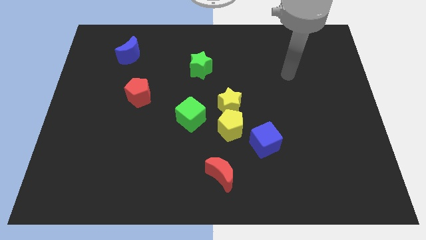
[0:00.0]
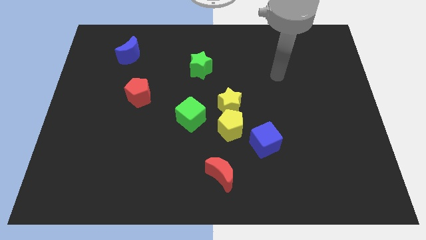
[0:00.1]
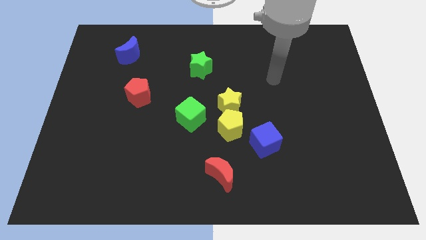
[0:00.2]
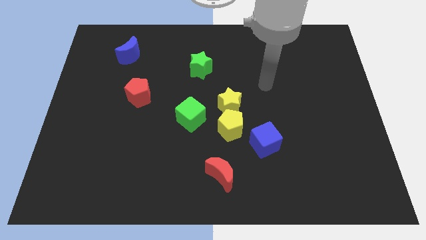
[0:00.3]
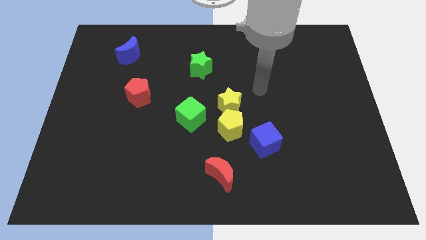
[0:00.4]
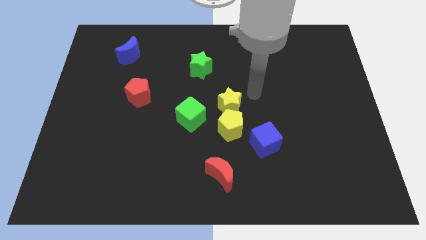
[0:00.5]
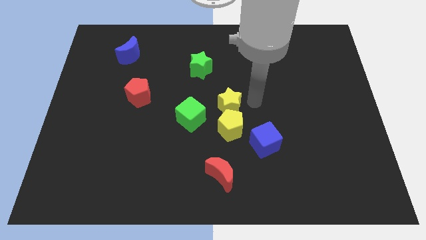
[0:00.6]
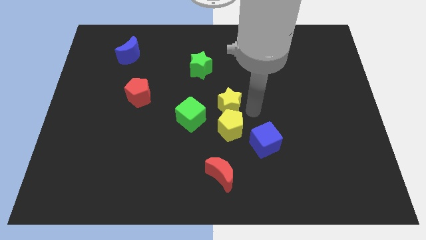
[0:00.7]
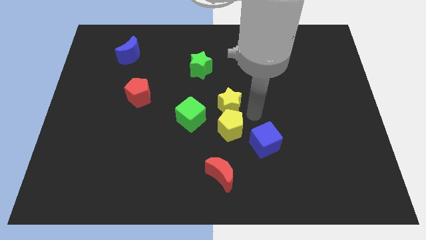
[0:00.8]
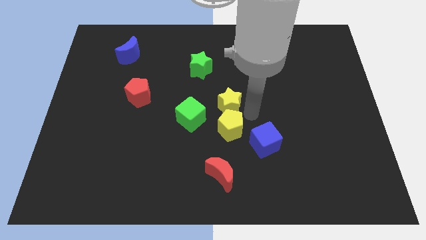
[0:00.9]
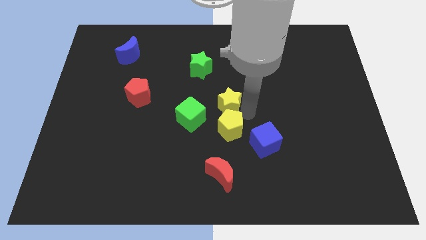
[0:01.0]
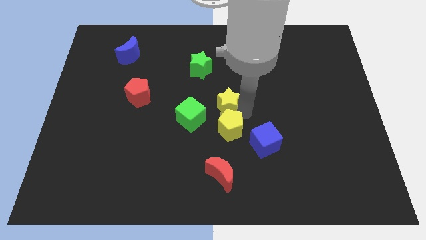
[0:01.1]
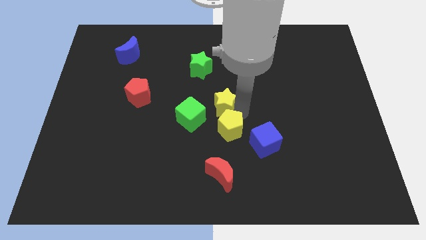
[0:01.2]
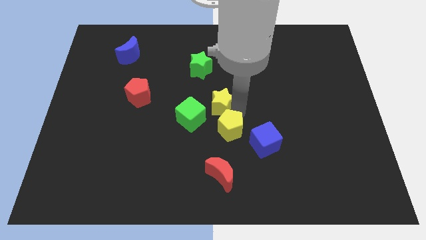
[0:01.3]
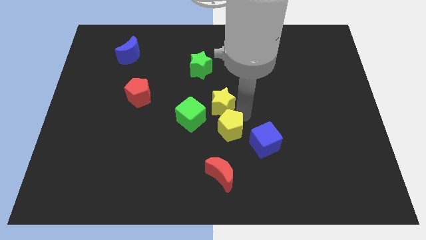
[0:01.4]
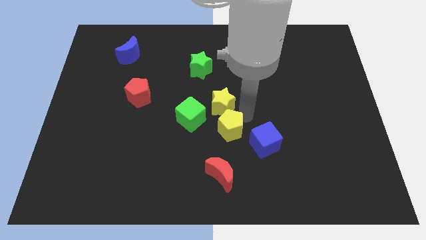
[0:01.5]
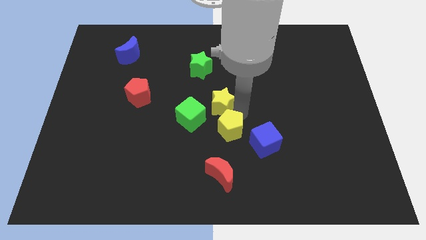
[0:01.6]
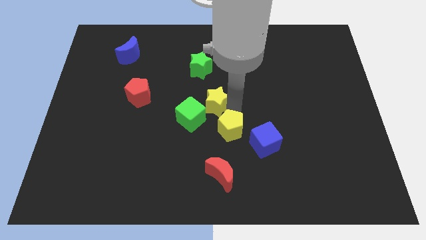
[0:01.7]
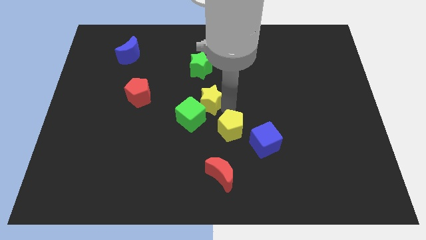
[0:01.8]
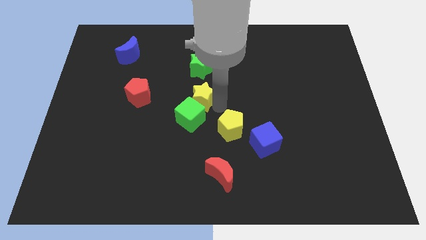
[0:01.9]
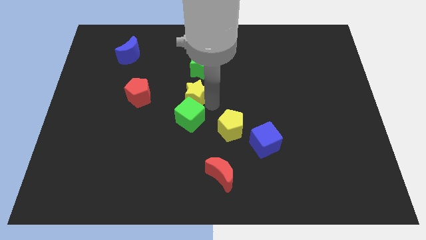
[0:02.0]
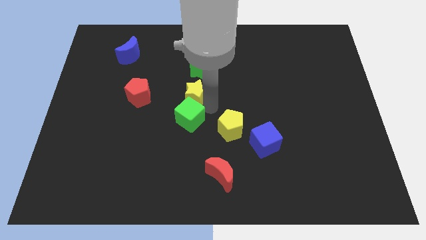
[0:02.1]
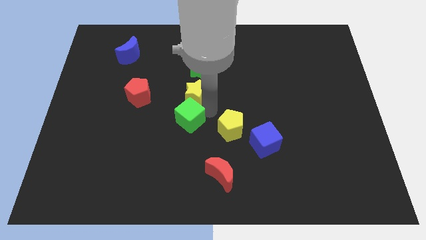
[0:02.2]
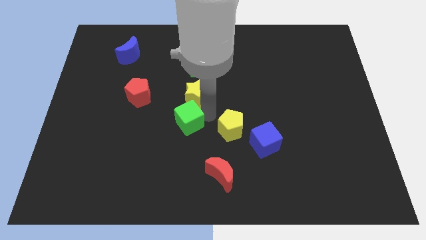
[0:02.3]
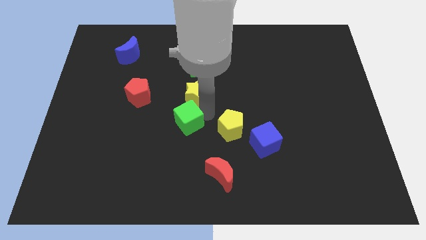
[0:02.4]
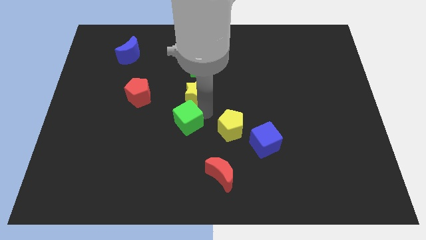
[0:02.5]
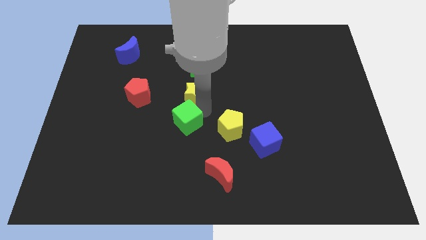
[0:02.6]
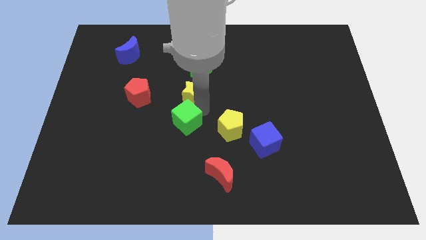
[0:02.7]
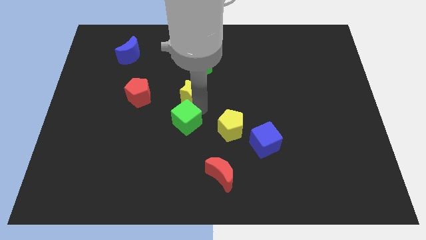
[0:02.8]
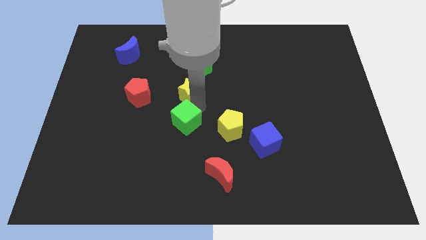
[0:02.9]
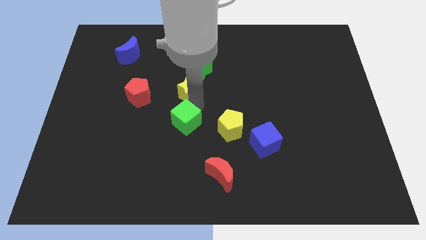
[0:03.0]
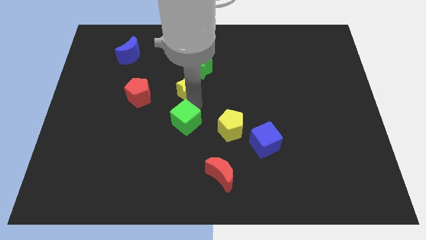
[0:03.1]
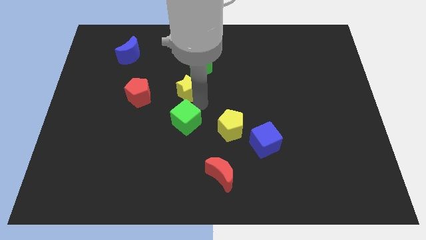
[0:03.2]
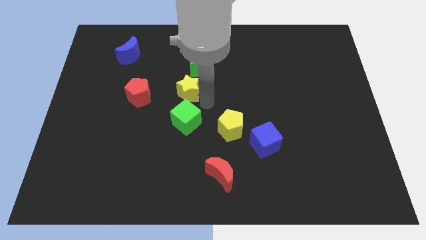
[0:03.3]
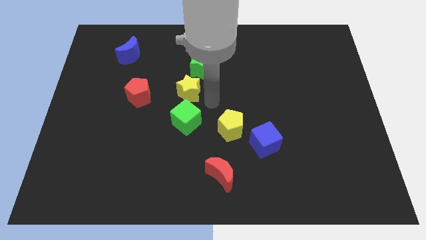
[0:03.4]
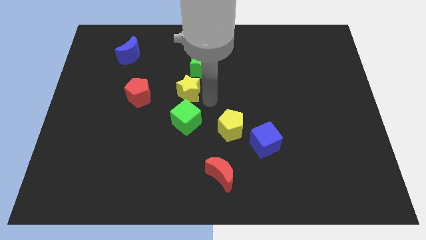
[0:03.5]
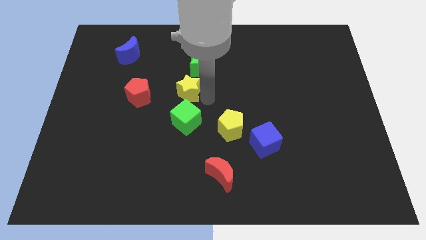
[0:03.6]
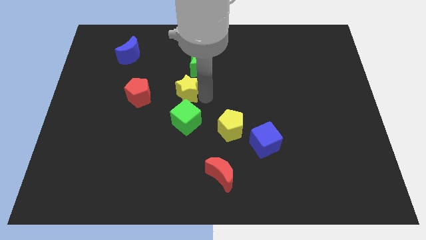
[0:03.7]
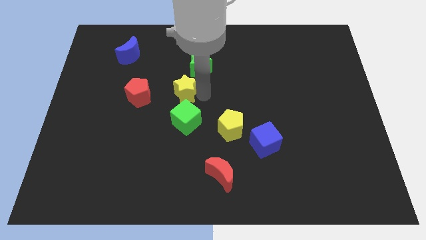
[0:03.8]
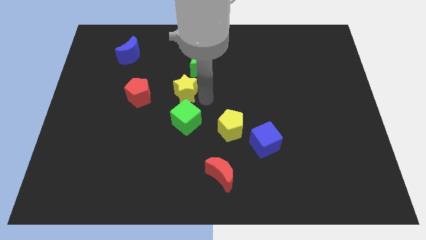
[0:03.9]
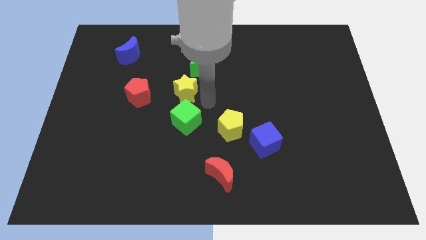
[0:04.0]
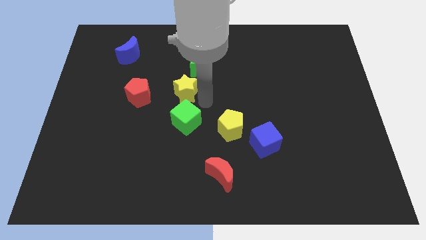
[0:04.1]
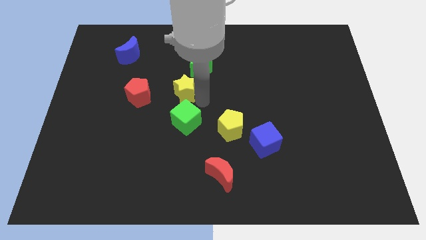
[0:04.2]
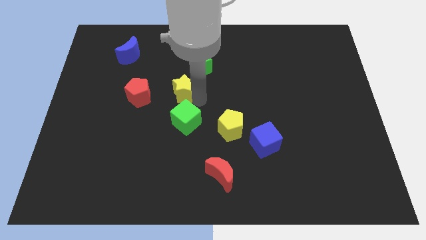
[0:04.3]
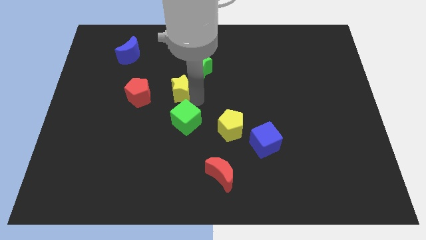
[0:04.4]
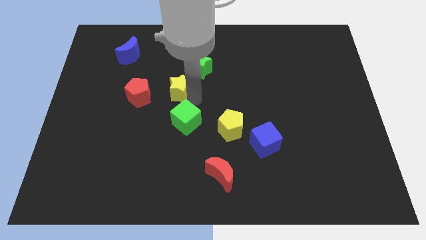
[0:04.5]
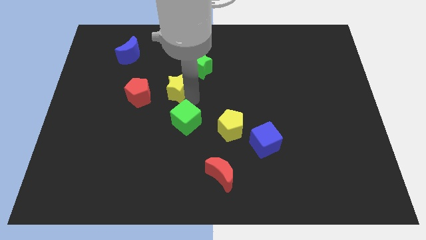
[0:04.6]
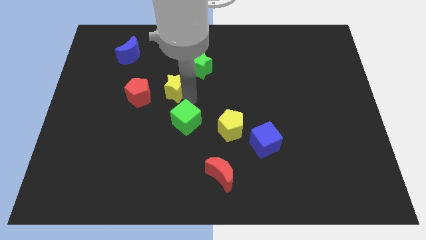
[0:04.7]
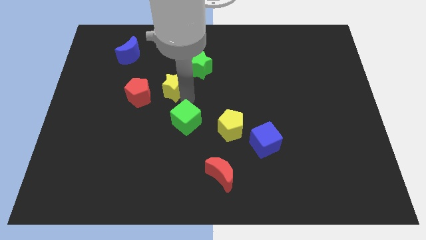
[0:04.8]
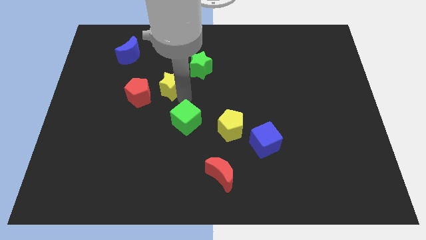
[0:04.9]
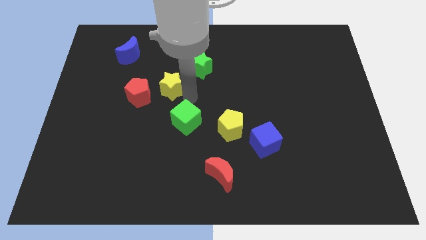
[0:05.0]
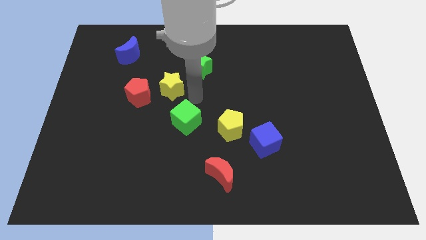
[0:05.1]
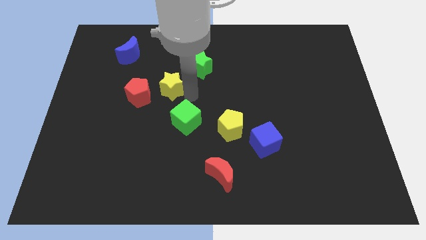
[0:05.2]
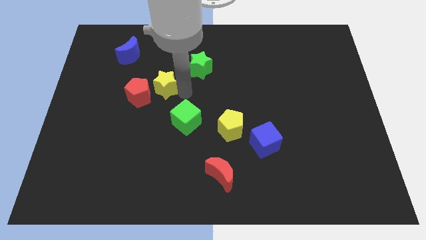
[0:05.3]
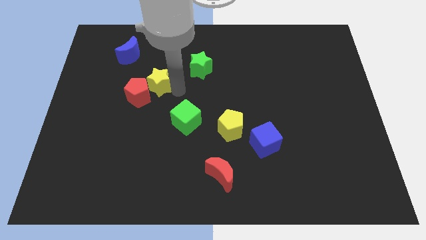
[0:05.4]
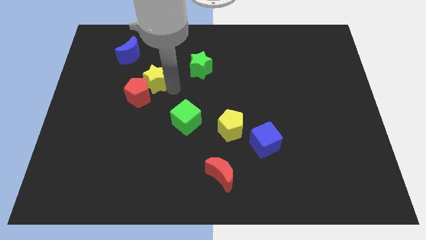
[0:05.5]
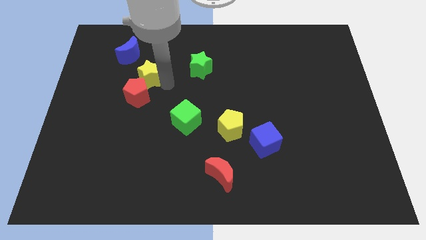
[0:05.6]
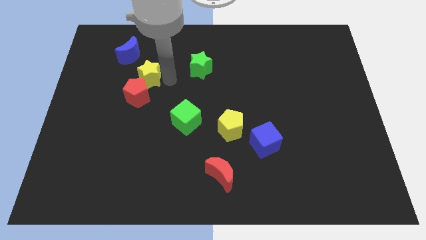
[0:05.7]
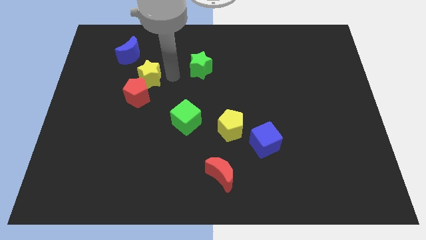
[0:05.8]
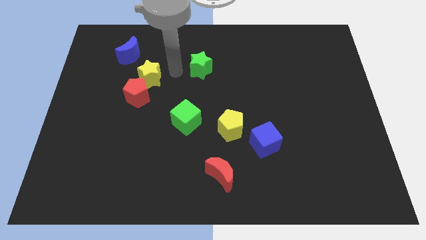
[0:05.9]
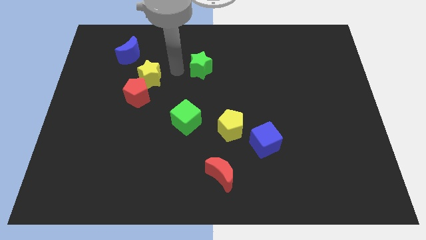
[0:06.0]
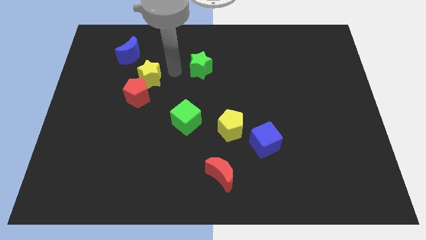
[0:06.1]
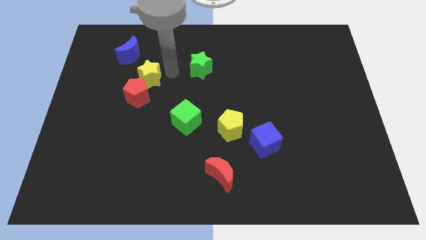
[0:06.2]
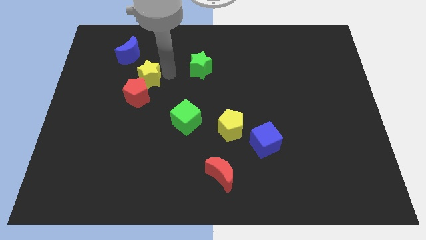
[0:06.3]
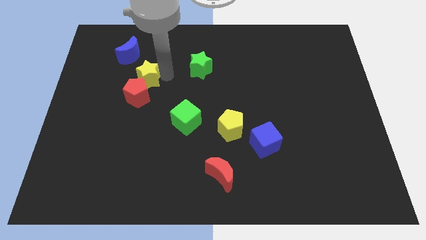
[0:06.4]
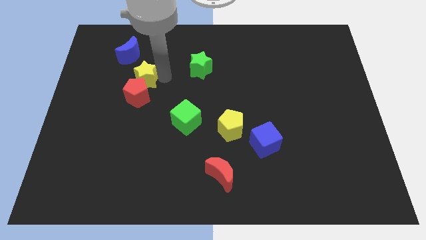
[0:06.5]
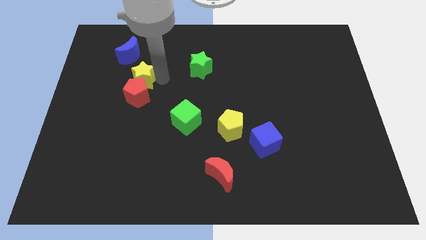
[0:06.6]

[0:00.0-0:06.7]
move the yellow star below the blue moon

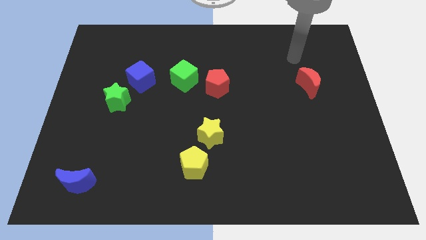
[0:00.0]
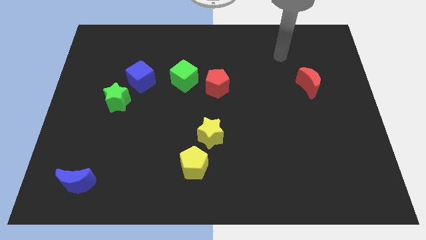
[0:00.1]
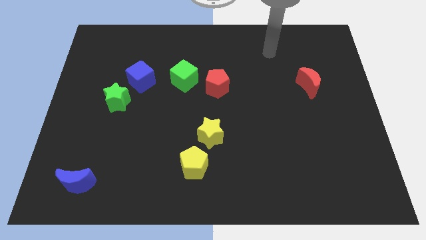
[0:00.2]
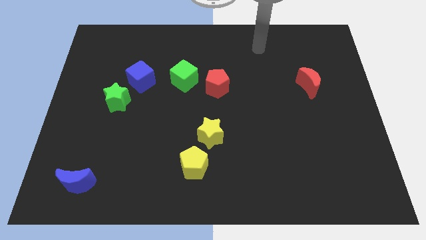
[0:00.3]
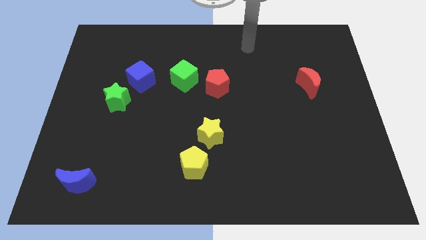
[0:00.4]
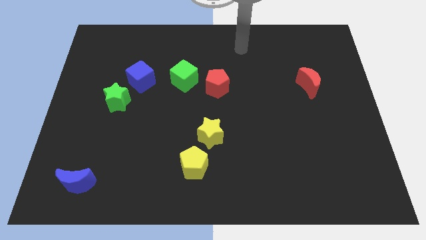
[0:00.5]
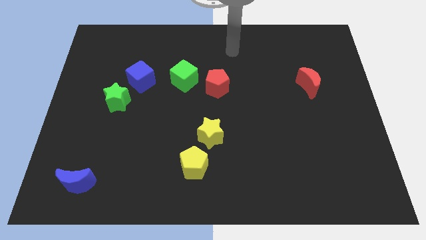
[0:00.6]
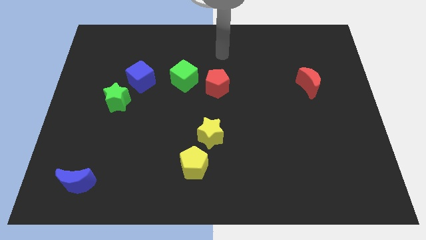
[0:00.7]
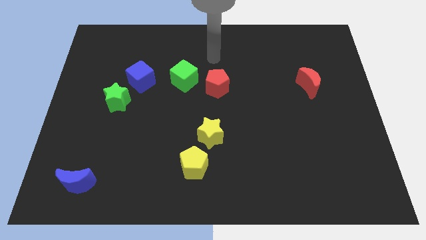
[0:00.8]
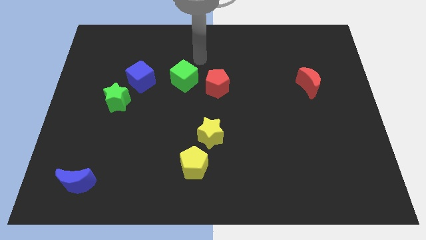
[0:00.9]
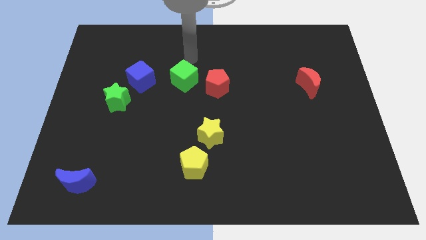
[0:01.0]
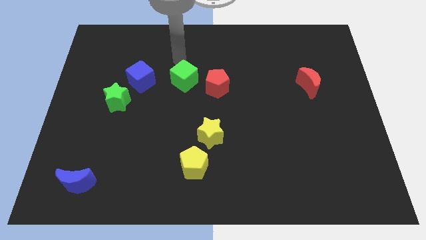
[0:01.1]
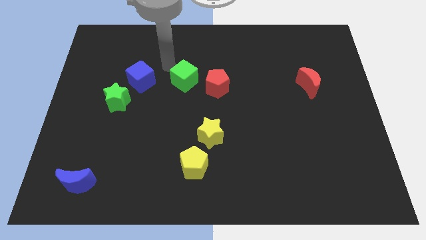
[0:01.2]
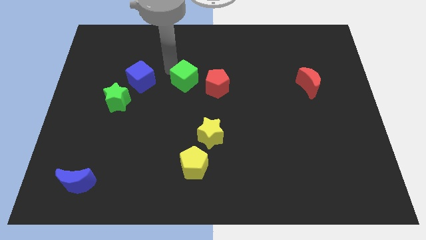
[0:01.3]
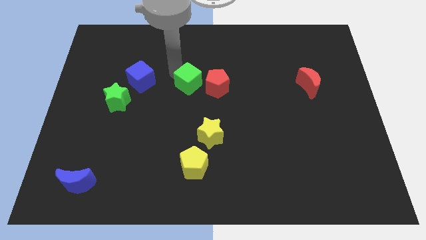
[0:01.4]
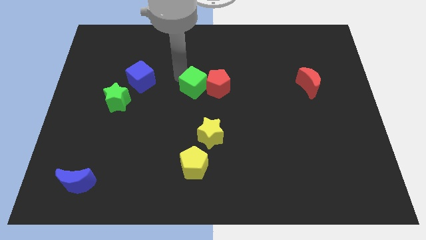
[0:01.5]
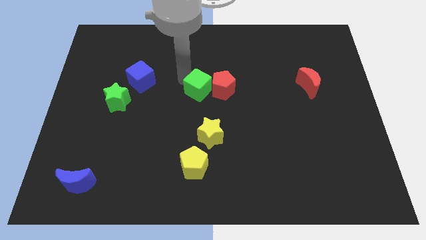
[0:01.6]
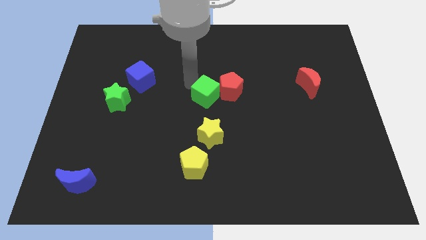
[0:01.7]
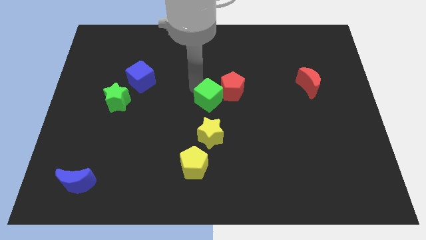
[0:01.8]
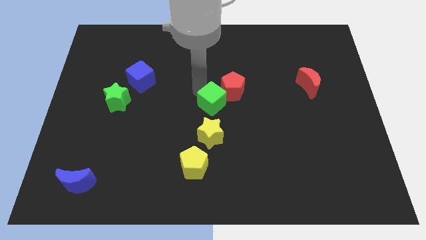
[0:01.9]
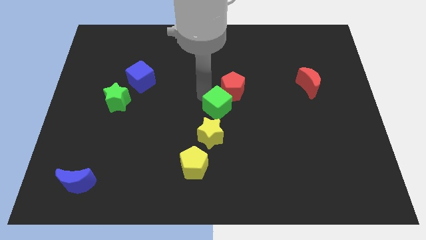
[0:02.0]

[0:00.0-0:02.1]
put the green cube to the top right side of the yellow star
